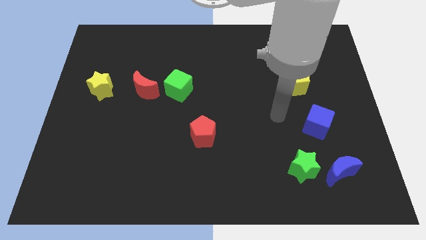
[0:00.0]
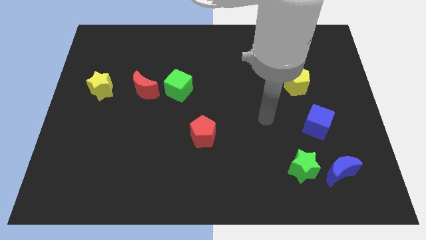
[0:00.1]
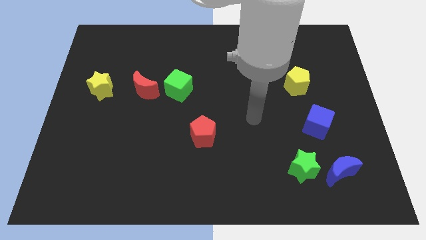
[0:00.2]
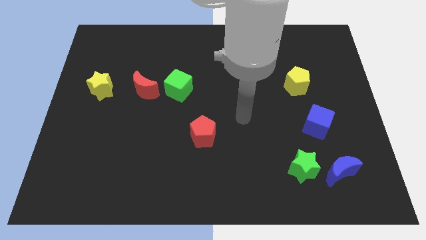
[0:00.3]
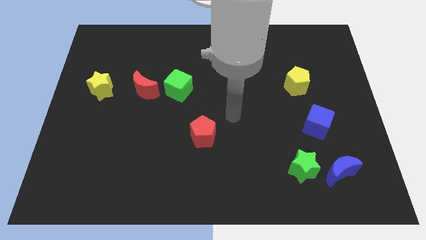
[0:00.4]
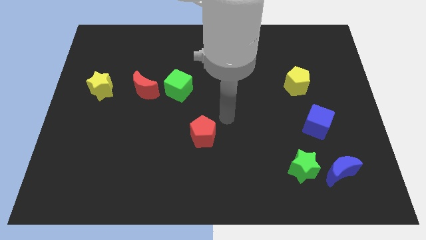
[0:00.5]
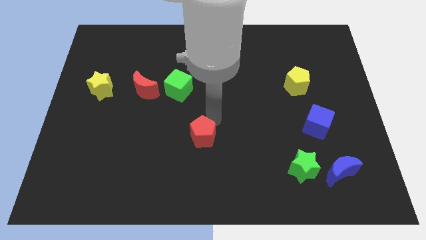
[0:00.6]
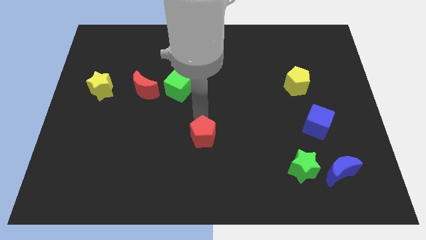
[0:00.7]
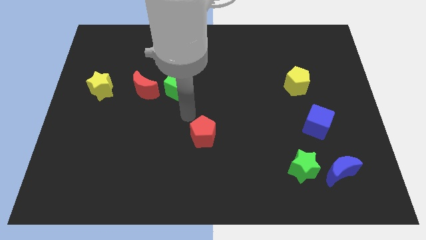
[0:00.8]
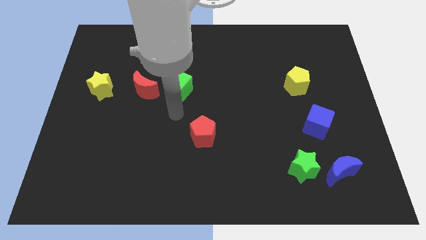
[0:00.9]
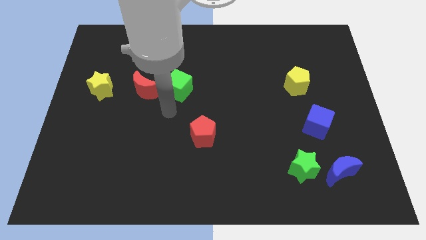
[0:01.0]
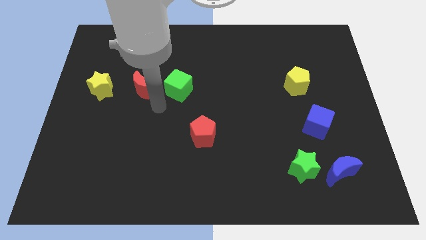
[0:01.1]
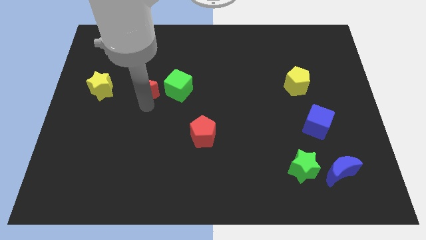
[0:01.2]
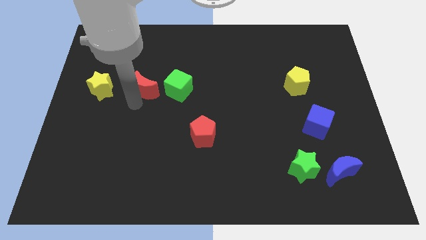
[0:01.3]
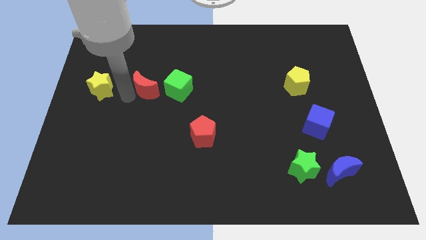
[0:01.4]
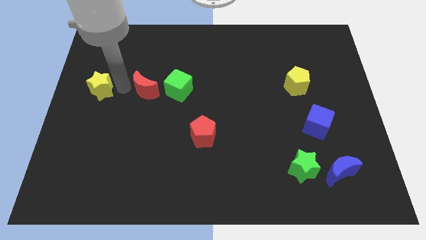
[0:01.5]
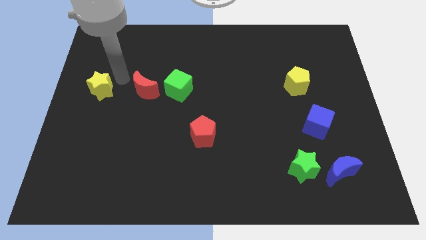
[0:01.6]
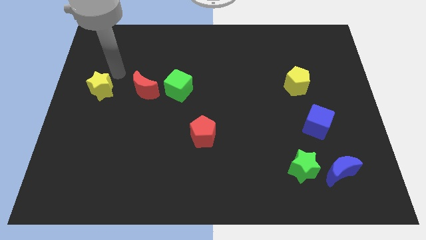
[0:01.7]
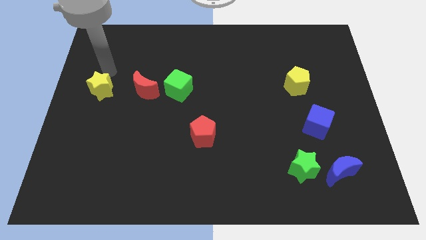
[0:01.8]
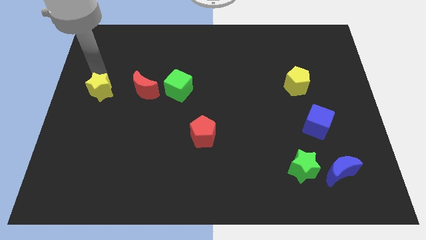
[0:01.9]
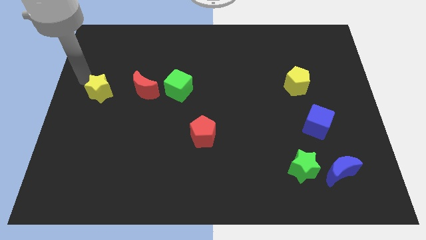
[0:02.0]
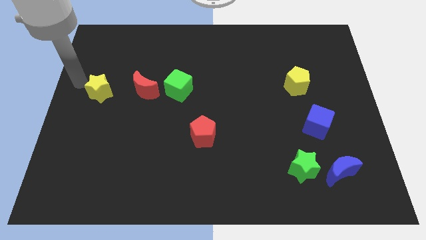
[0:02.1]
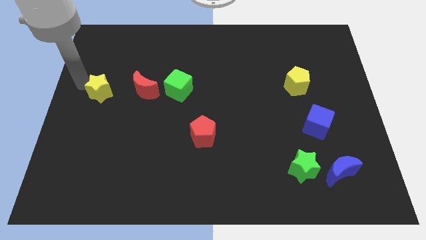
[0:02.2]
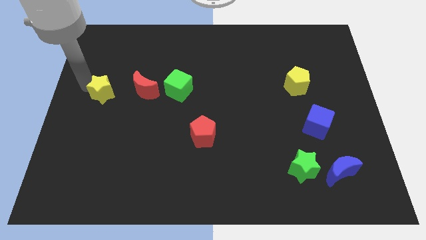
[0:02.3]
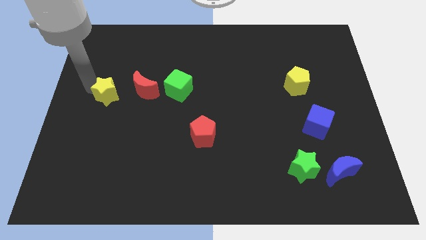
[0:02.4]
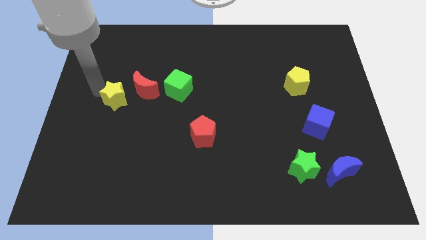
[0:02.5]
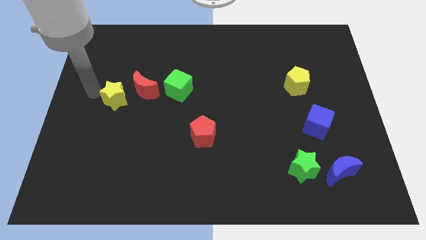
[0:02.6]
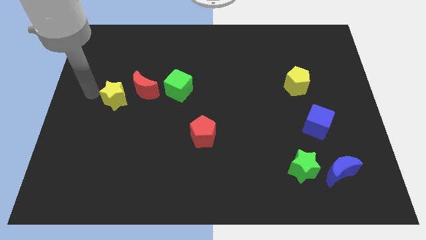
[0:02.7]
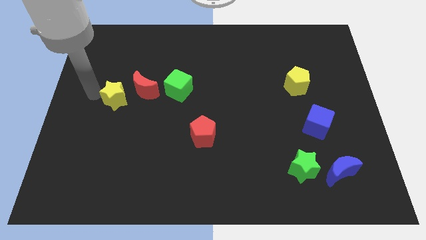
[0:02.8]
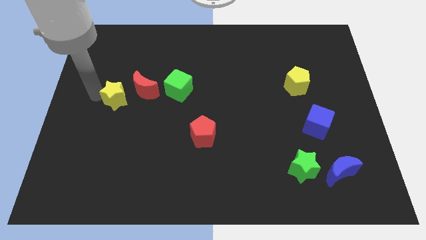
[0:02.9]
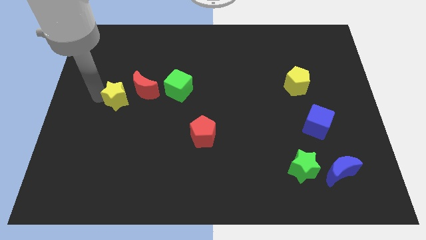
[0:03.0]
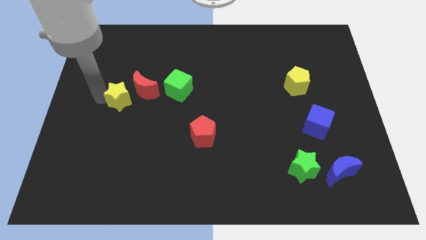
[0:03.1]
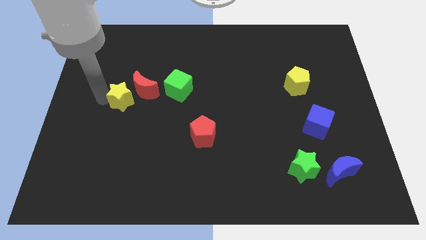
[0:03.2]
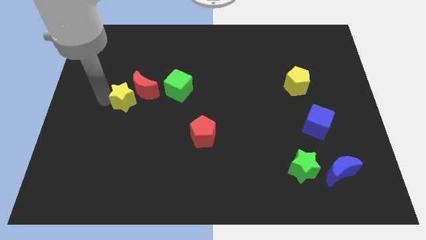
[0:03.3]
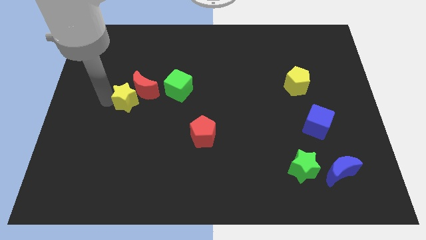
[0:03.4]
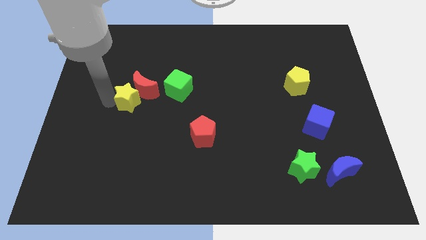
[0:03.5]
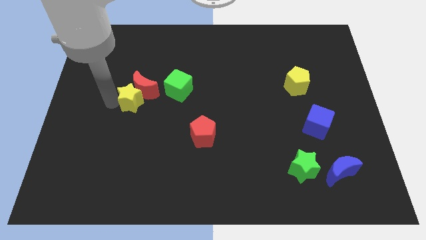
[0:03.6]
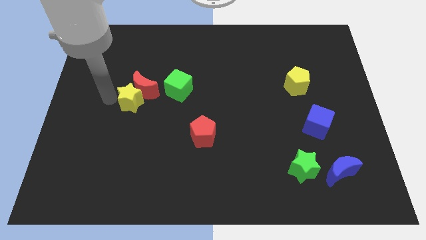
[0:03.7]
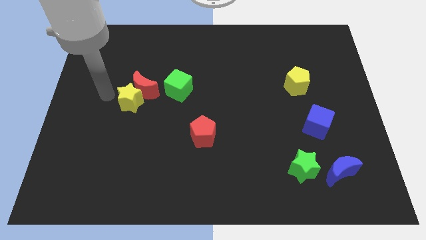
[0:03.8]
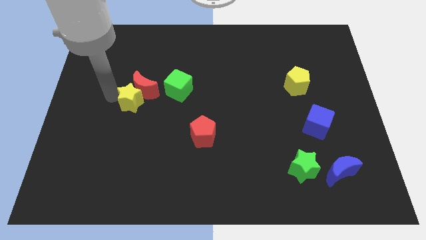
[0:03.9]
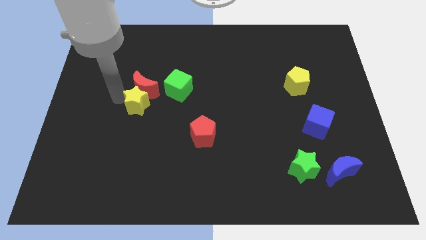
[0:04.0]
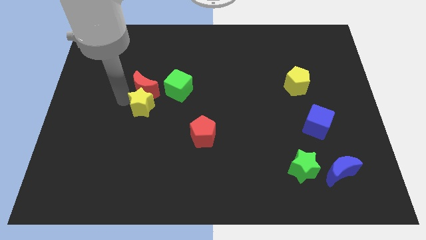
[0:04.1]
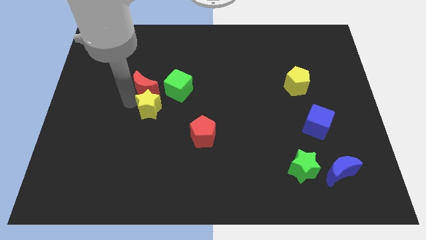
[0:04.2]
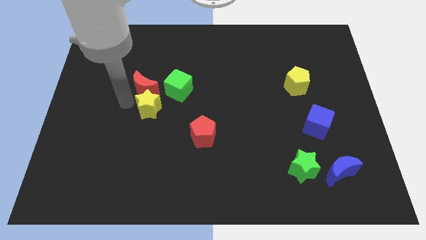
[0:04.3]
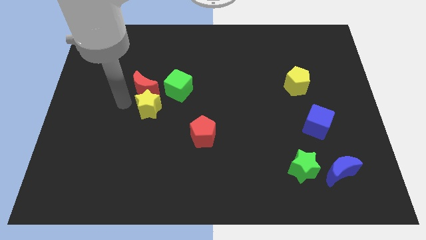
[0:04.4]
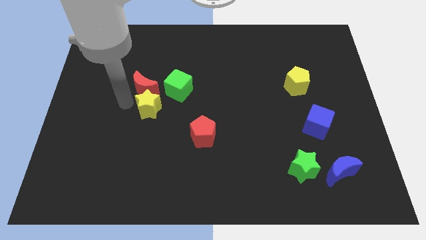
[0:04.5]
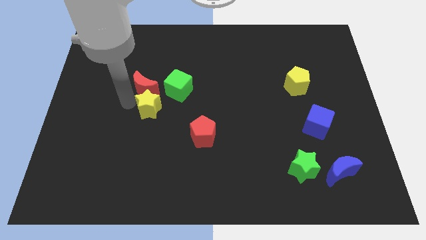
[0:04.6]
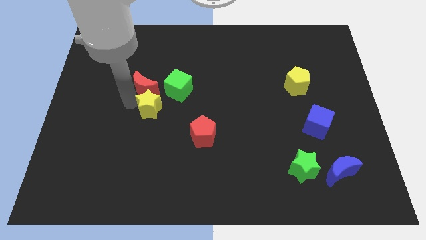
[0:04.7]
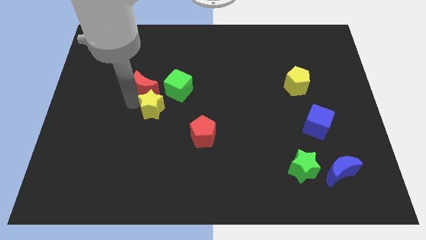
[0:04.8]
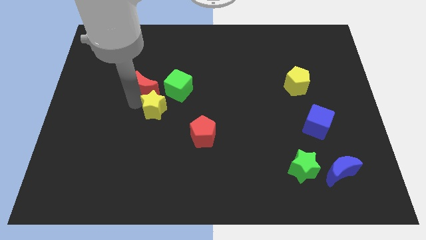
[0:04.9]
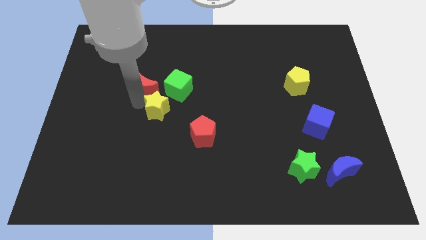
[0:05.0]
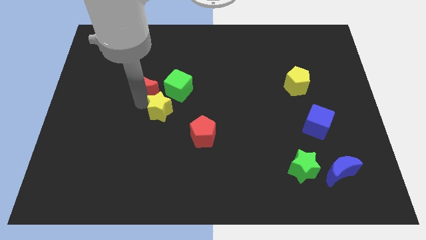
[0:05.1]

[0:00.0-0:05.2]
move the yellow star to the top left side of the red pentagon
